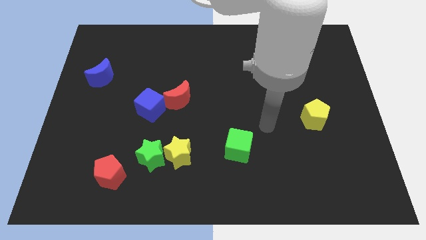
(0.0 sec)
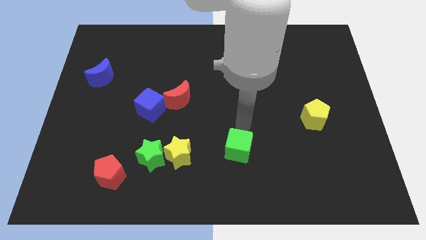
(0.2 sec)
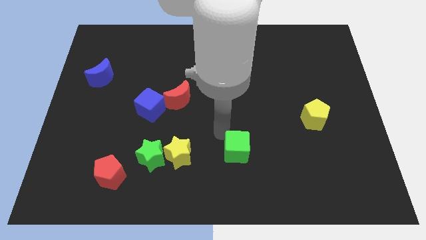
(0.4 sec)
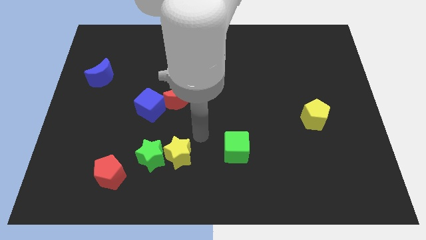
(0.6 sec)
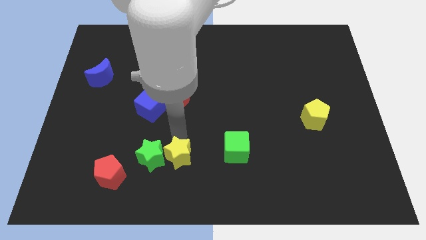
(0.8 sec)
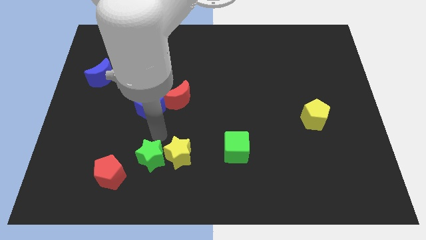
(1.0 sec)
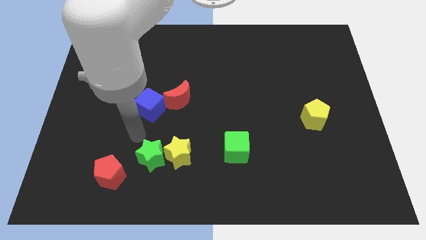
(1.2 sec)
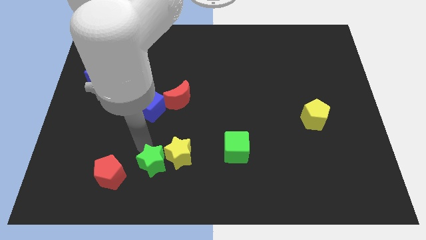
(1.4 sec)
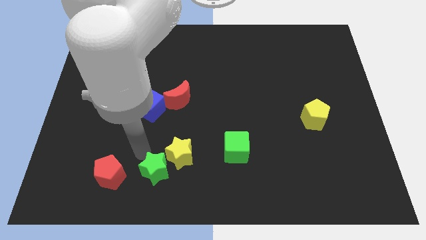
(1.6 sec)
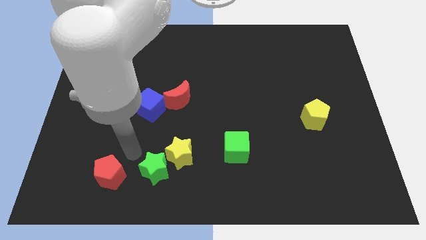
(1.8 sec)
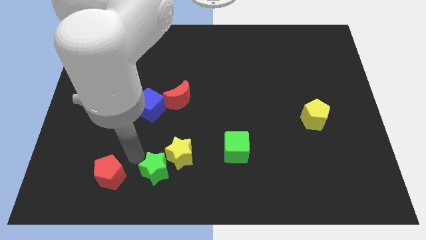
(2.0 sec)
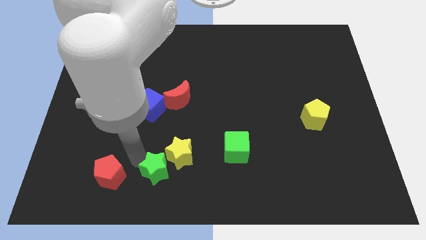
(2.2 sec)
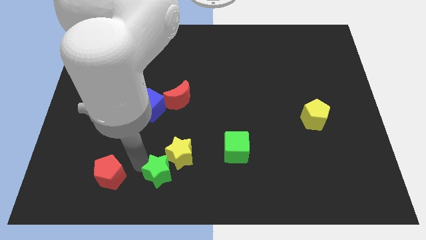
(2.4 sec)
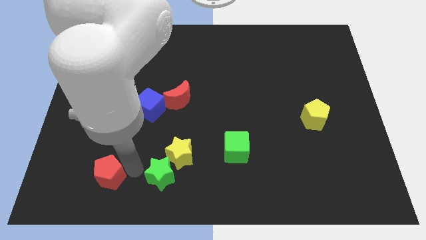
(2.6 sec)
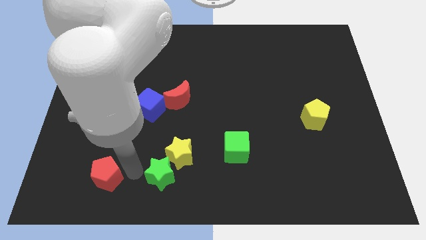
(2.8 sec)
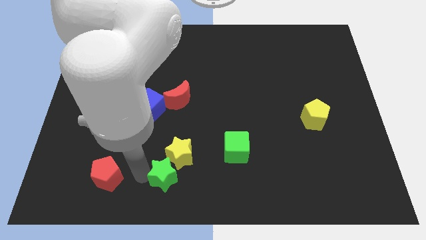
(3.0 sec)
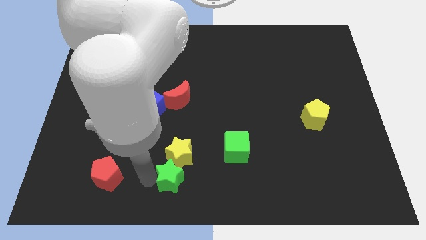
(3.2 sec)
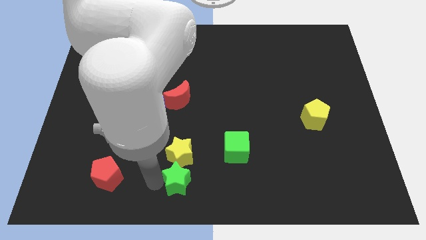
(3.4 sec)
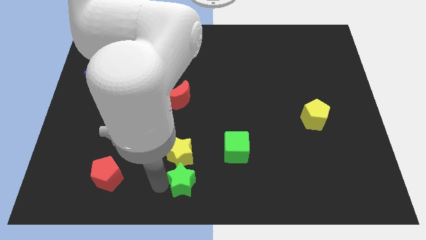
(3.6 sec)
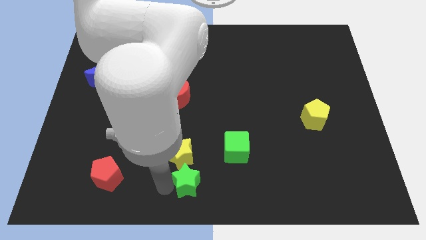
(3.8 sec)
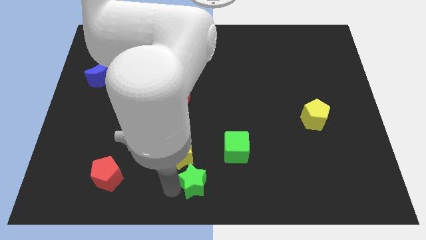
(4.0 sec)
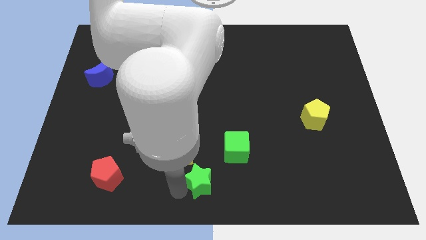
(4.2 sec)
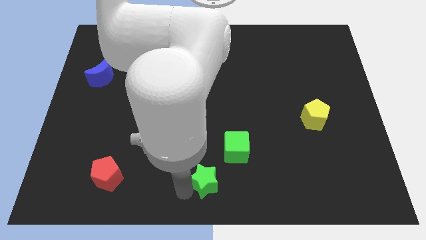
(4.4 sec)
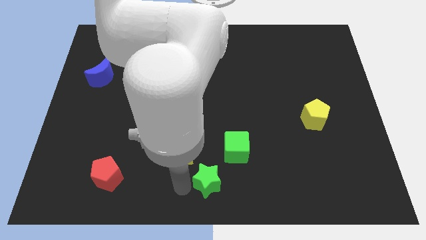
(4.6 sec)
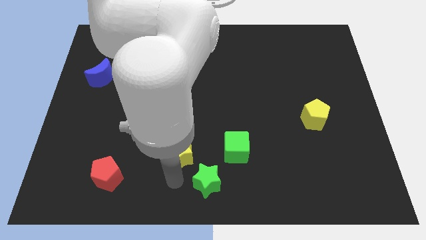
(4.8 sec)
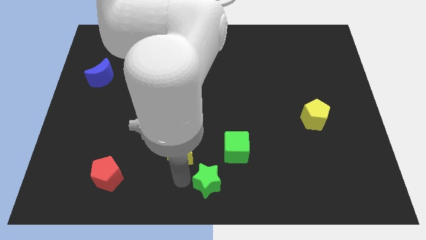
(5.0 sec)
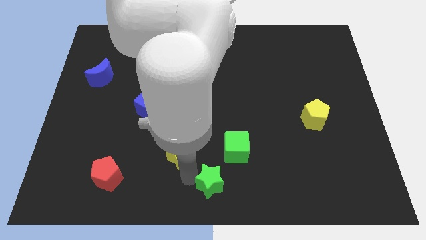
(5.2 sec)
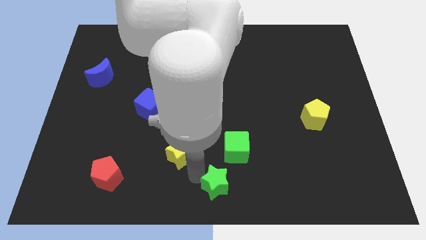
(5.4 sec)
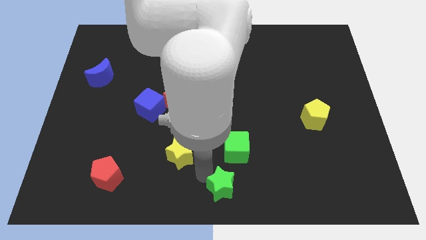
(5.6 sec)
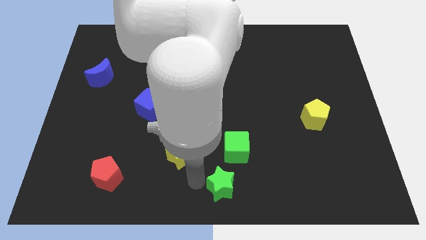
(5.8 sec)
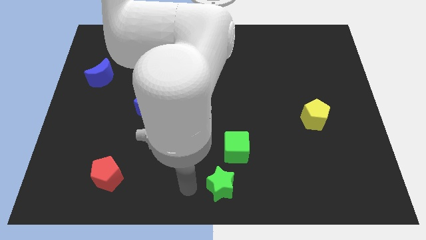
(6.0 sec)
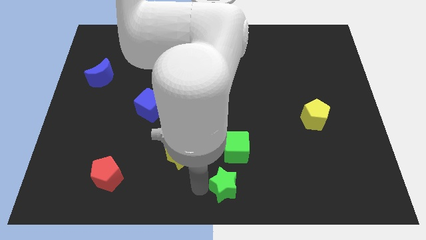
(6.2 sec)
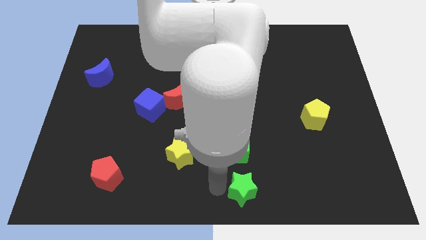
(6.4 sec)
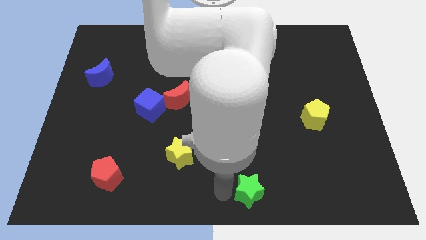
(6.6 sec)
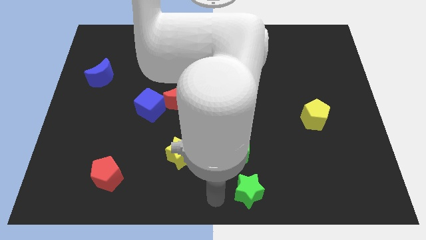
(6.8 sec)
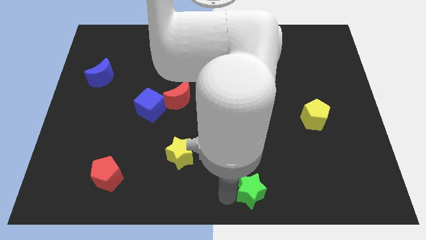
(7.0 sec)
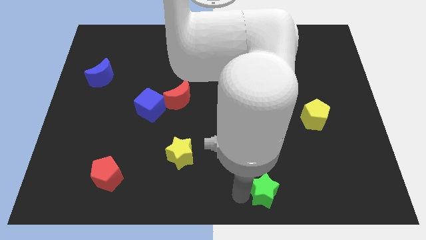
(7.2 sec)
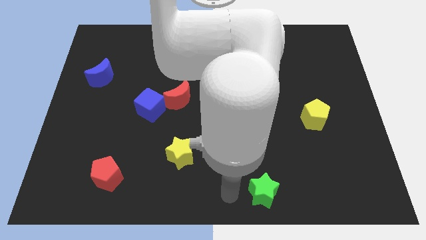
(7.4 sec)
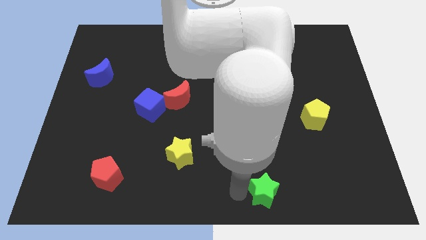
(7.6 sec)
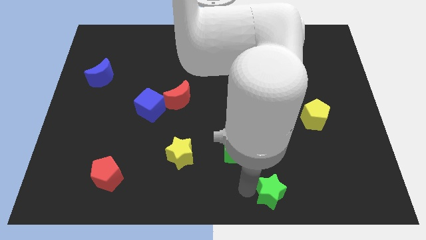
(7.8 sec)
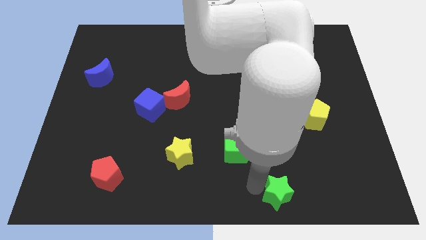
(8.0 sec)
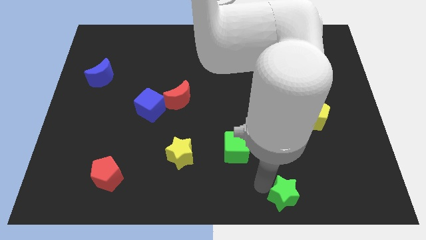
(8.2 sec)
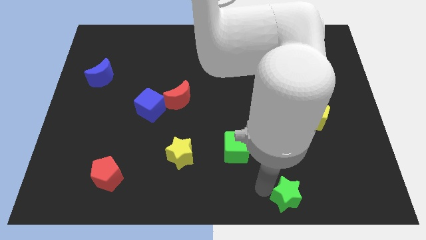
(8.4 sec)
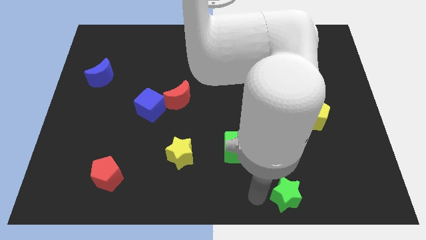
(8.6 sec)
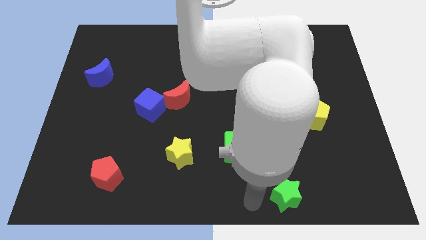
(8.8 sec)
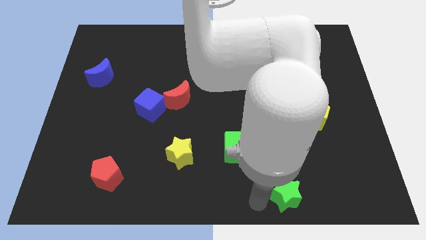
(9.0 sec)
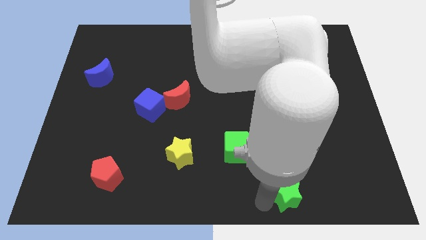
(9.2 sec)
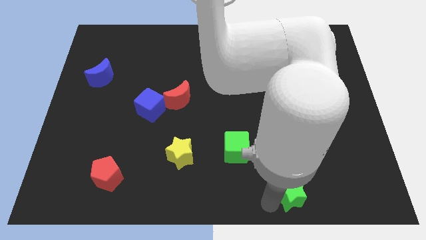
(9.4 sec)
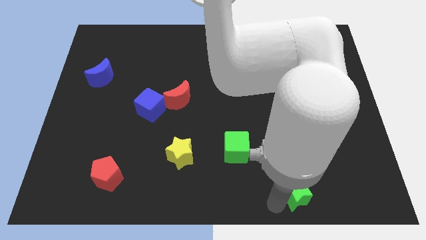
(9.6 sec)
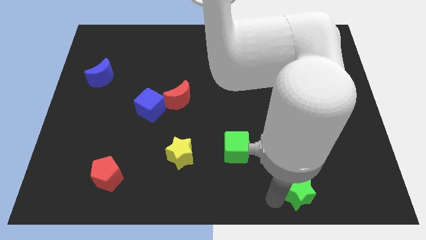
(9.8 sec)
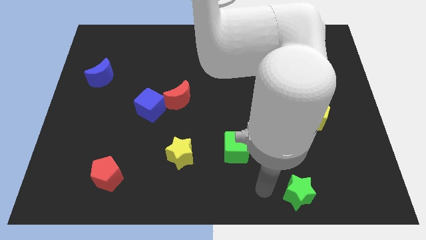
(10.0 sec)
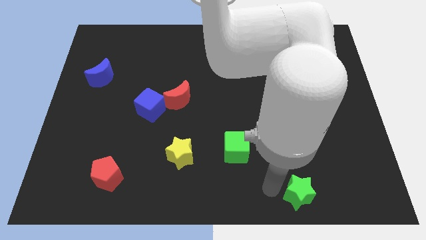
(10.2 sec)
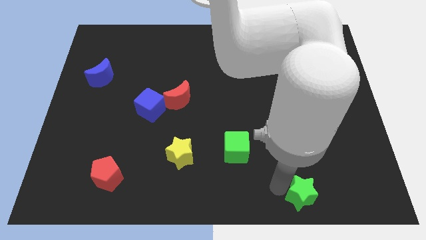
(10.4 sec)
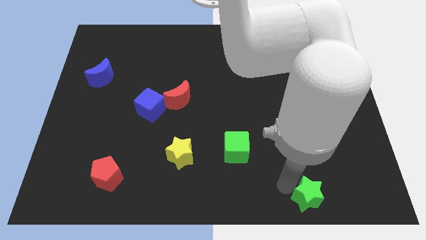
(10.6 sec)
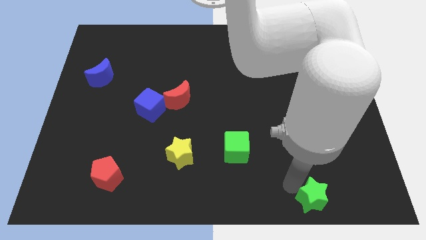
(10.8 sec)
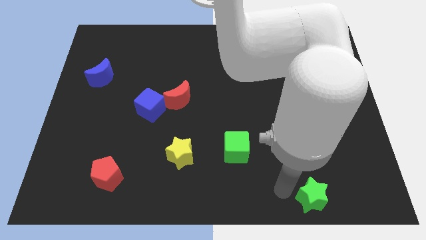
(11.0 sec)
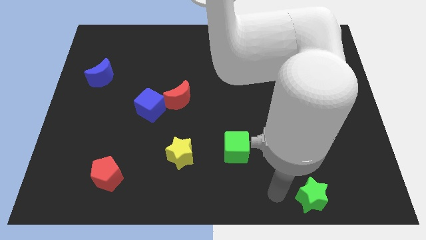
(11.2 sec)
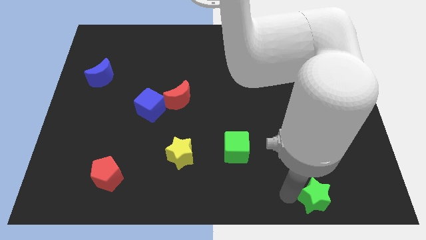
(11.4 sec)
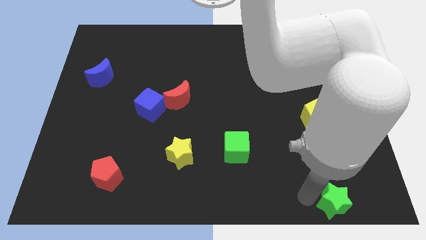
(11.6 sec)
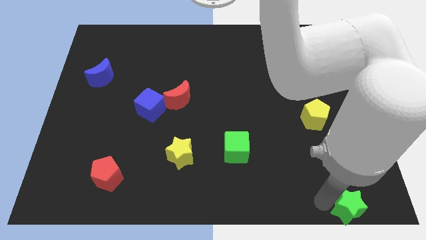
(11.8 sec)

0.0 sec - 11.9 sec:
push the green star to the lower right corner

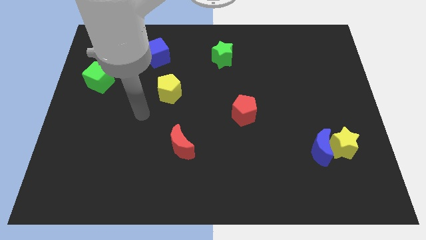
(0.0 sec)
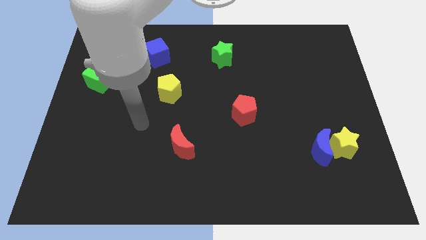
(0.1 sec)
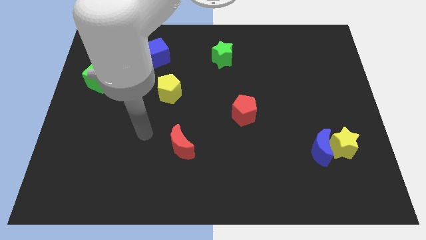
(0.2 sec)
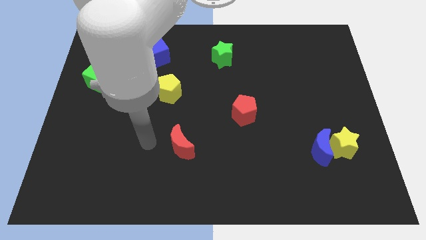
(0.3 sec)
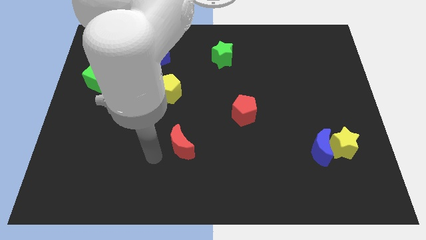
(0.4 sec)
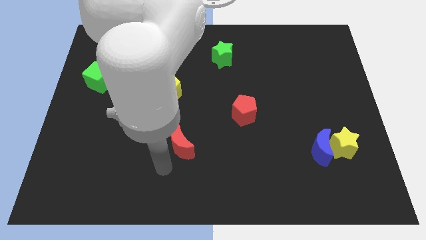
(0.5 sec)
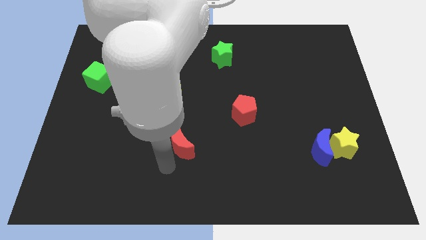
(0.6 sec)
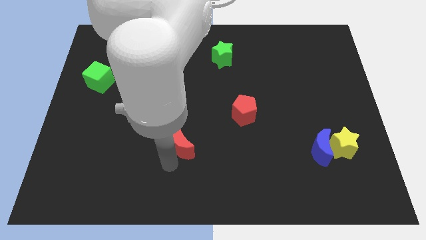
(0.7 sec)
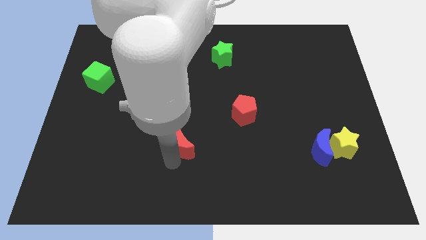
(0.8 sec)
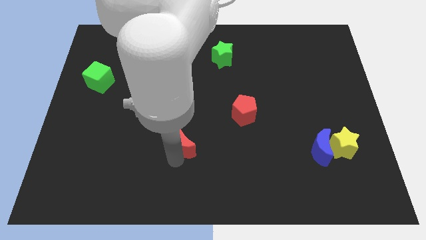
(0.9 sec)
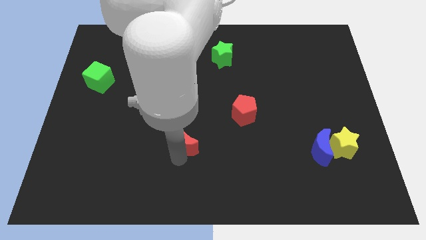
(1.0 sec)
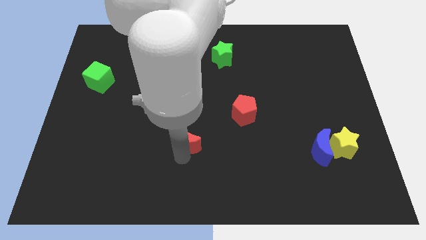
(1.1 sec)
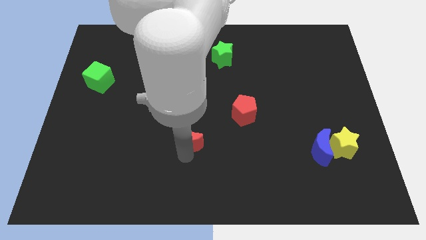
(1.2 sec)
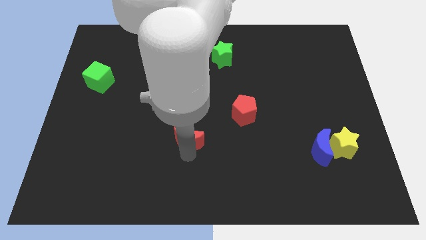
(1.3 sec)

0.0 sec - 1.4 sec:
push the red moon to the center of the board
